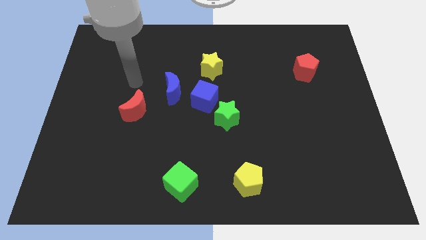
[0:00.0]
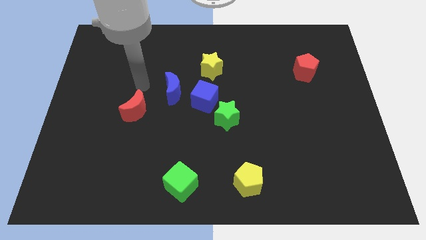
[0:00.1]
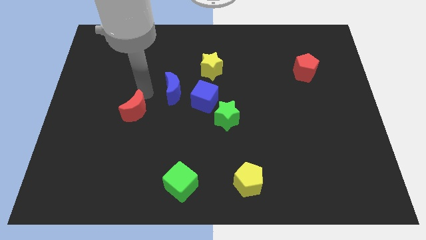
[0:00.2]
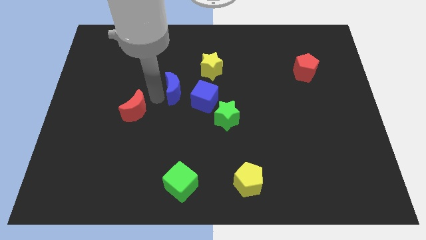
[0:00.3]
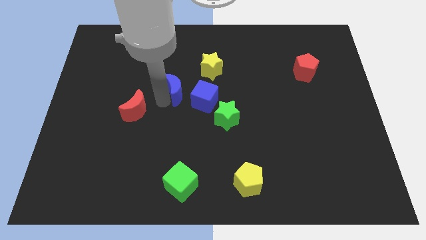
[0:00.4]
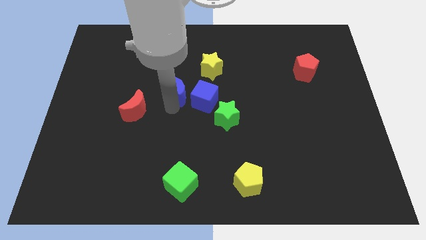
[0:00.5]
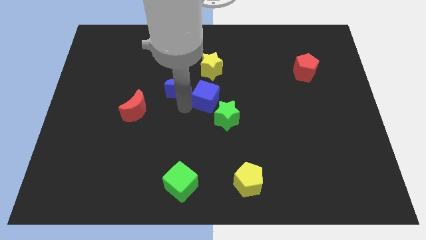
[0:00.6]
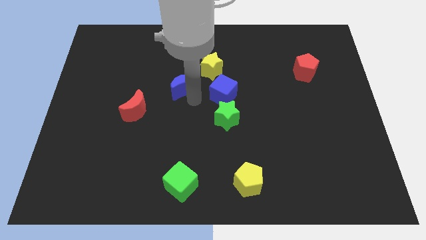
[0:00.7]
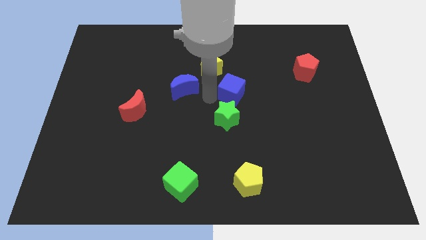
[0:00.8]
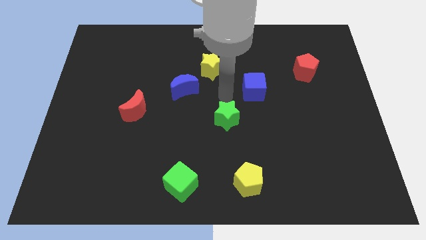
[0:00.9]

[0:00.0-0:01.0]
pull the green star apart from the blue cube

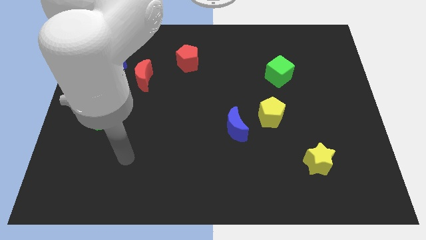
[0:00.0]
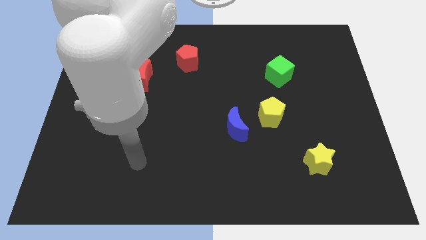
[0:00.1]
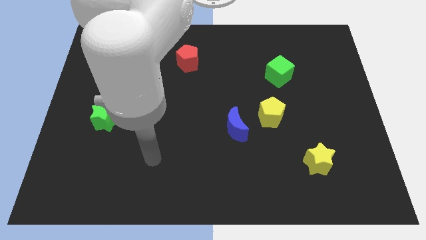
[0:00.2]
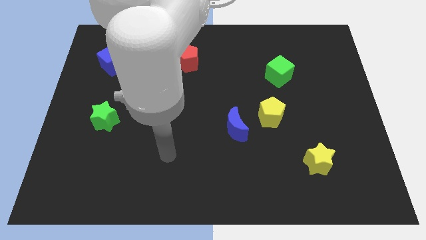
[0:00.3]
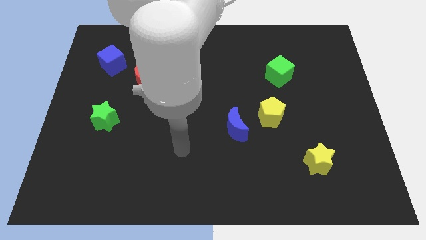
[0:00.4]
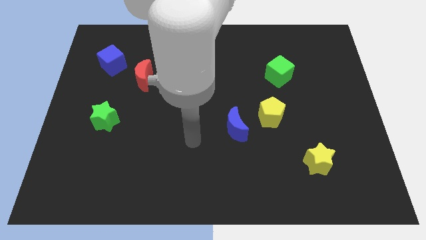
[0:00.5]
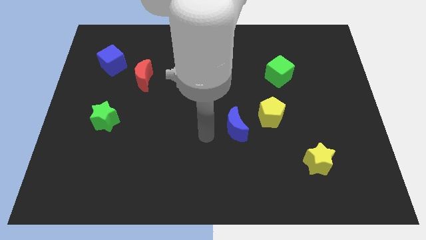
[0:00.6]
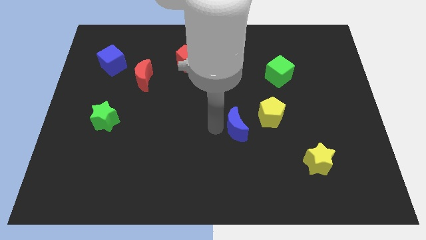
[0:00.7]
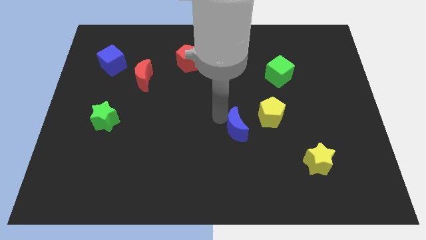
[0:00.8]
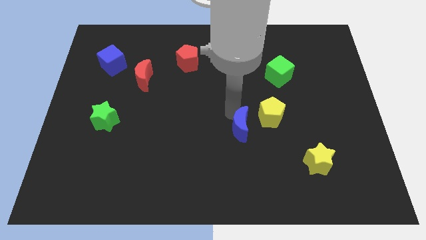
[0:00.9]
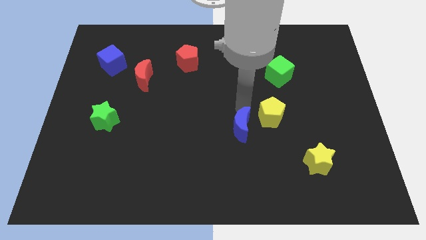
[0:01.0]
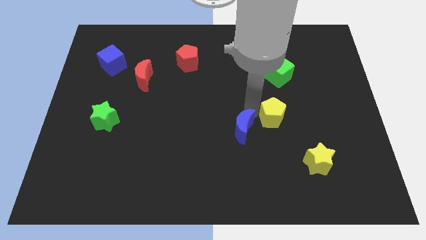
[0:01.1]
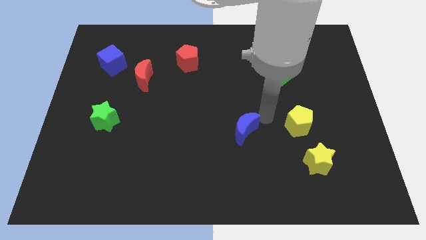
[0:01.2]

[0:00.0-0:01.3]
pull the blue moon apart from the yellow pentagon

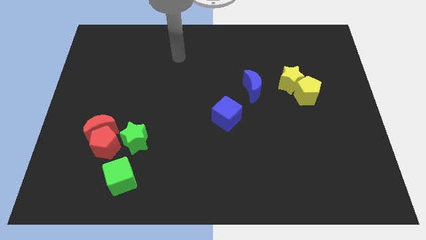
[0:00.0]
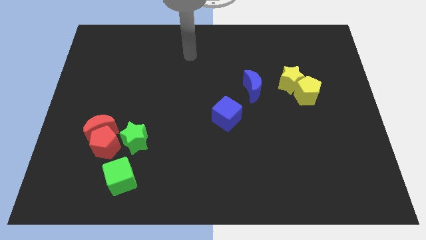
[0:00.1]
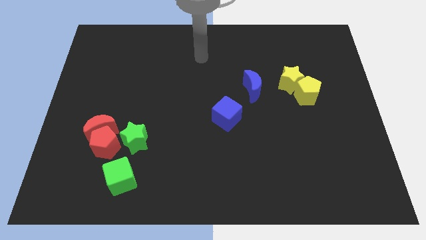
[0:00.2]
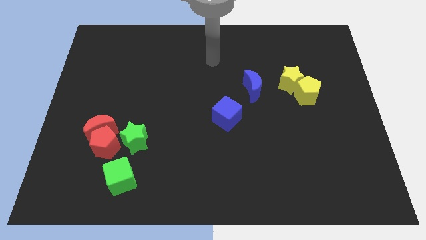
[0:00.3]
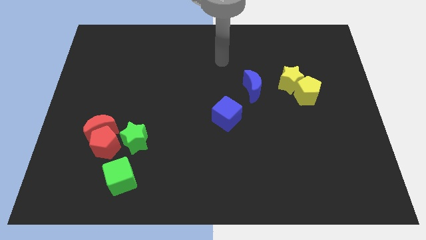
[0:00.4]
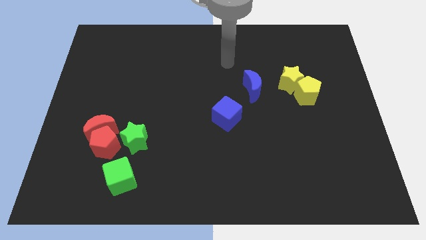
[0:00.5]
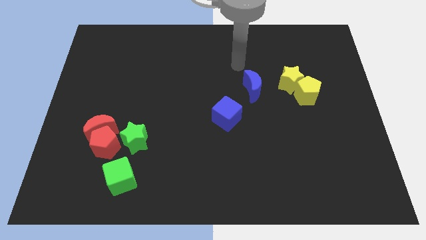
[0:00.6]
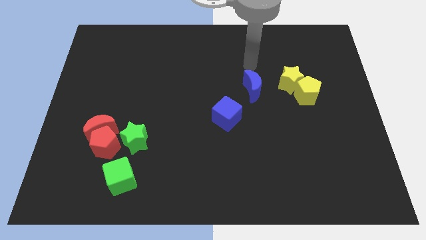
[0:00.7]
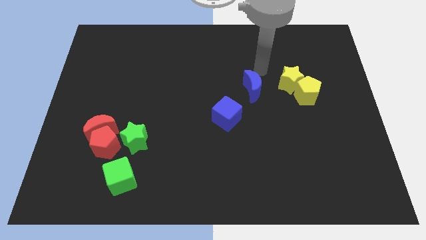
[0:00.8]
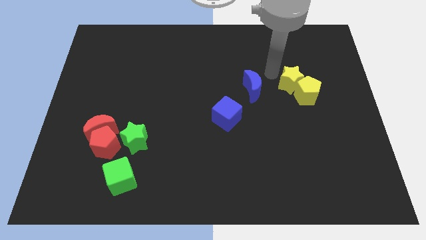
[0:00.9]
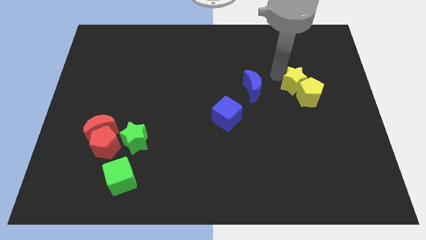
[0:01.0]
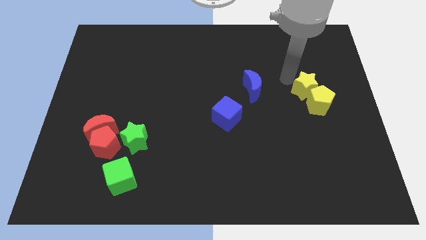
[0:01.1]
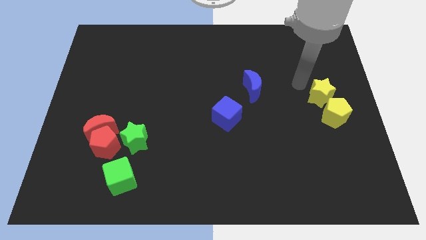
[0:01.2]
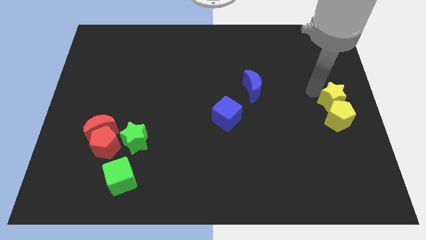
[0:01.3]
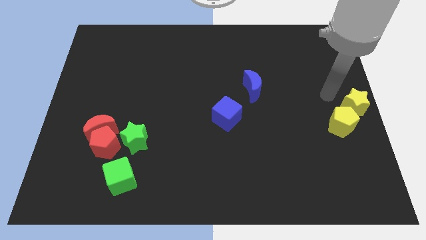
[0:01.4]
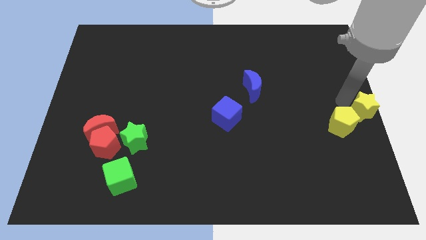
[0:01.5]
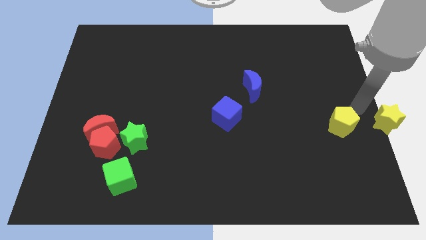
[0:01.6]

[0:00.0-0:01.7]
move the yellow pentagon away from the yellow star

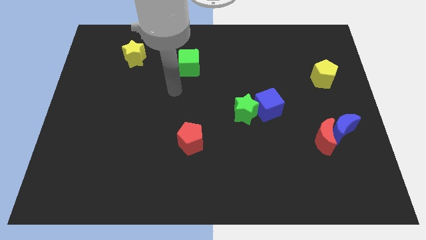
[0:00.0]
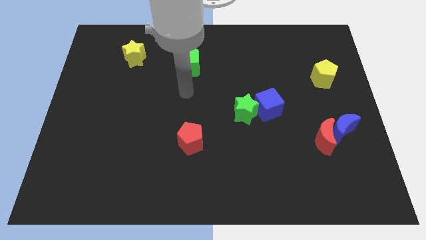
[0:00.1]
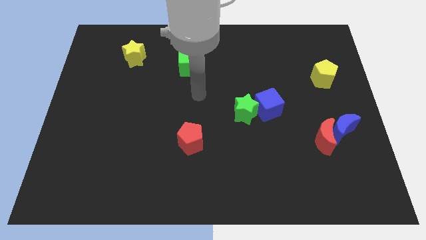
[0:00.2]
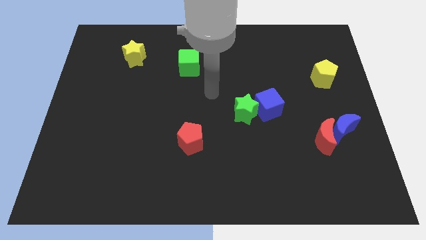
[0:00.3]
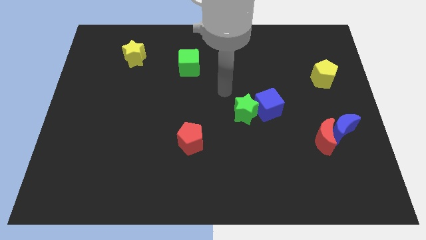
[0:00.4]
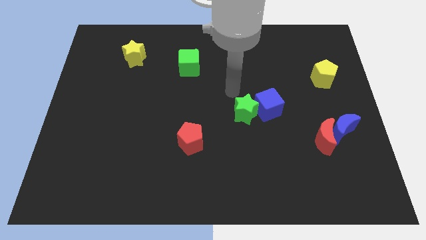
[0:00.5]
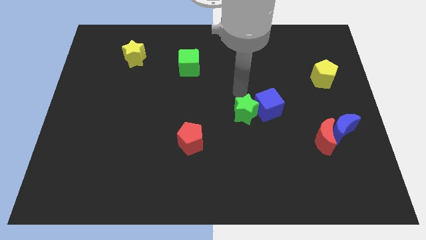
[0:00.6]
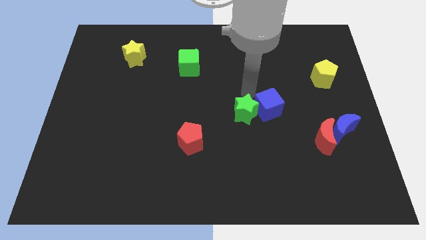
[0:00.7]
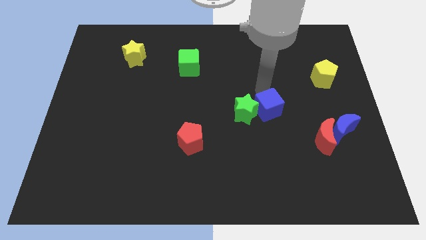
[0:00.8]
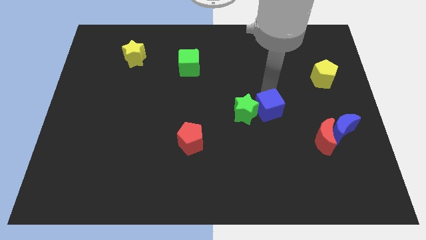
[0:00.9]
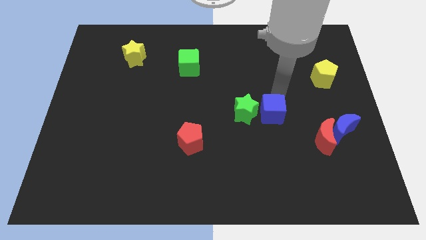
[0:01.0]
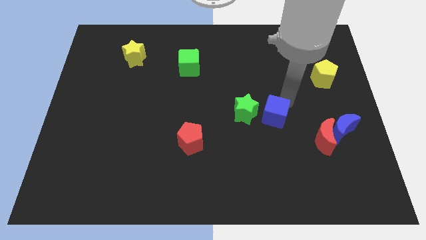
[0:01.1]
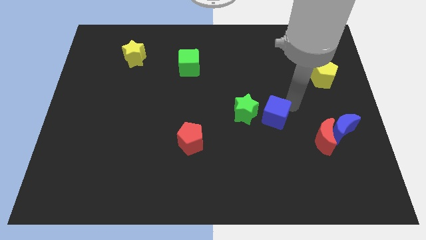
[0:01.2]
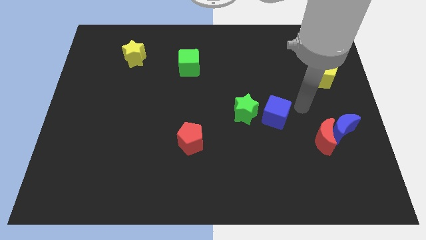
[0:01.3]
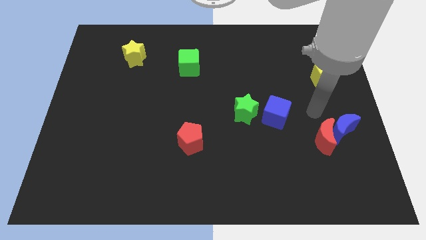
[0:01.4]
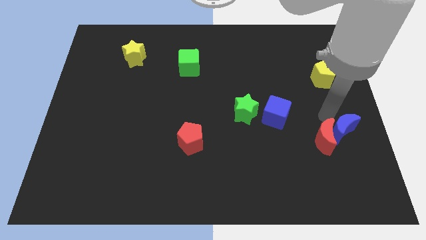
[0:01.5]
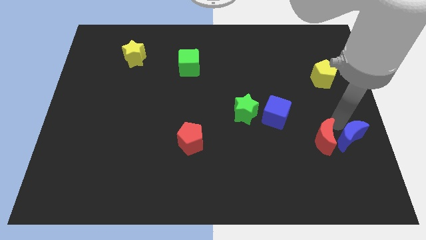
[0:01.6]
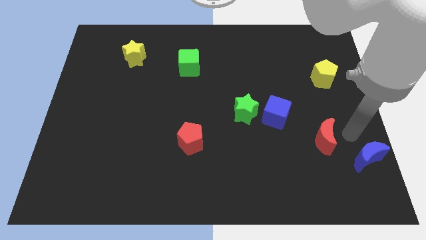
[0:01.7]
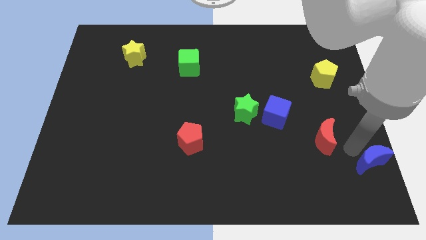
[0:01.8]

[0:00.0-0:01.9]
move the red moon away from the blue moon

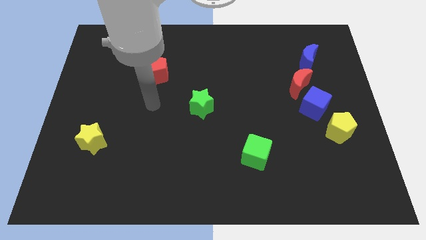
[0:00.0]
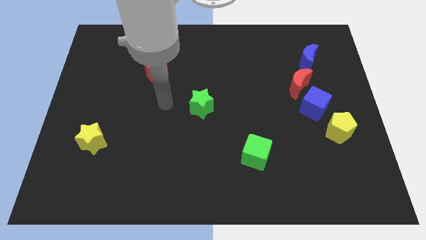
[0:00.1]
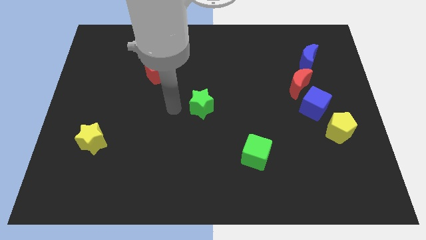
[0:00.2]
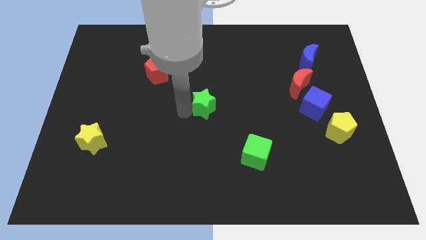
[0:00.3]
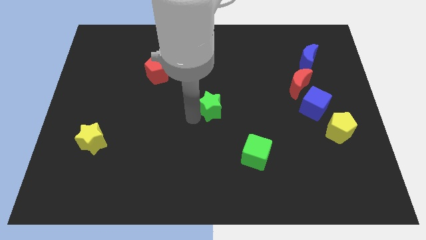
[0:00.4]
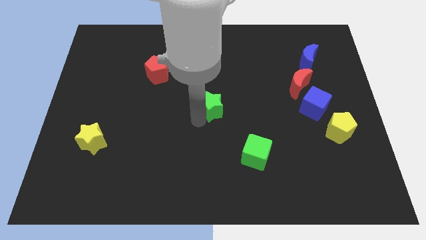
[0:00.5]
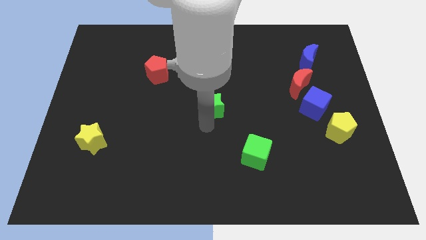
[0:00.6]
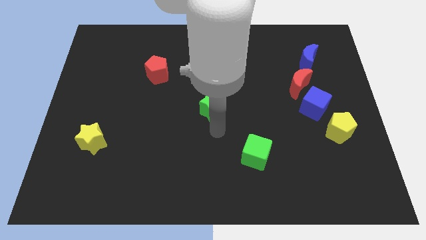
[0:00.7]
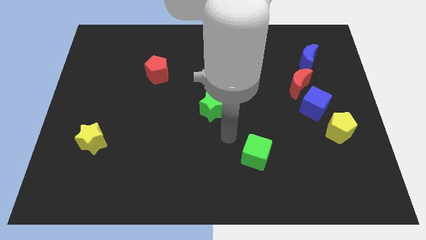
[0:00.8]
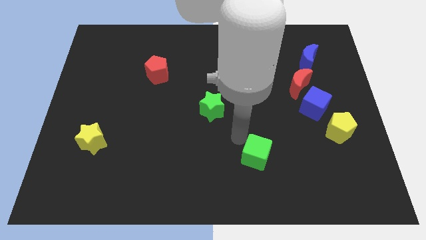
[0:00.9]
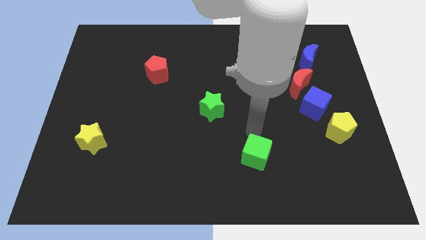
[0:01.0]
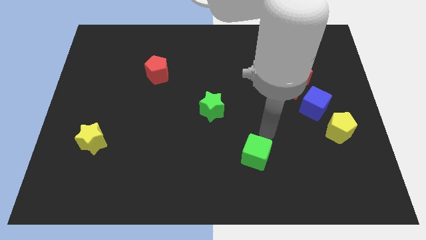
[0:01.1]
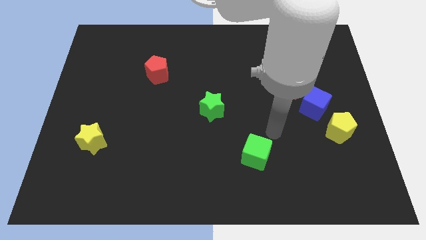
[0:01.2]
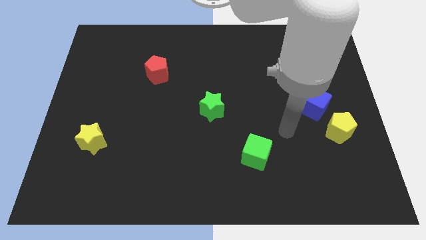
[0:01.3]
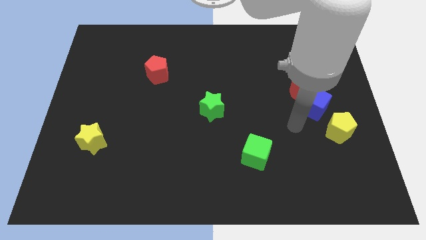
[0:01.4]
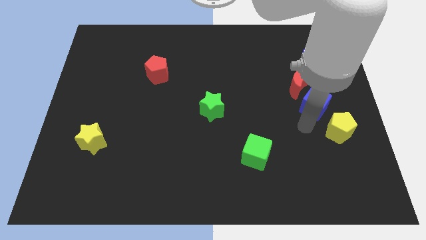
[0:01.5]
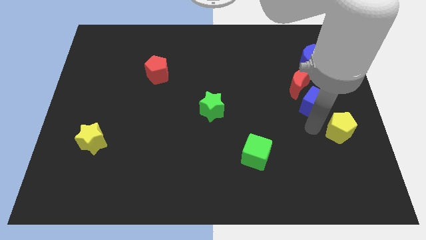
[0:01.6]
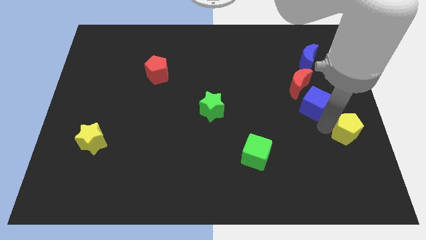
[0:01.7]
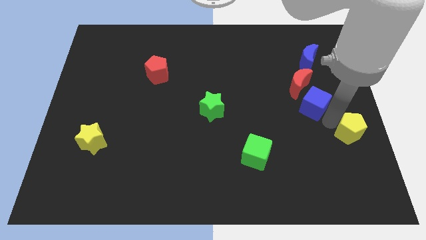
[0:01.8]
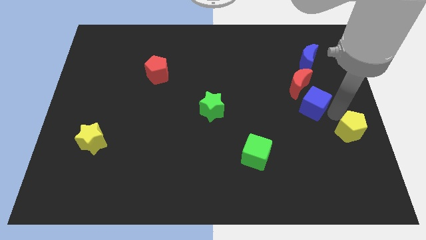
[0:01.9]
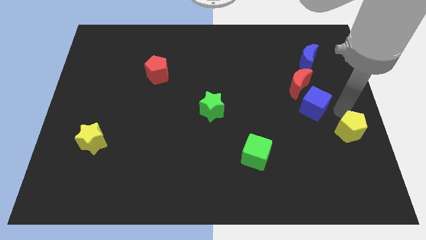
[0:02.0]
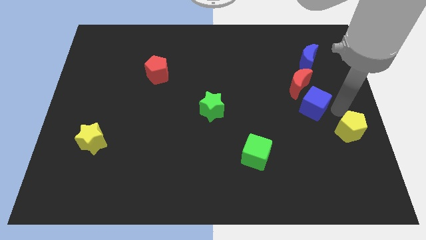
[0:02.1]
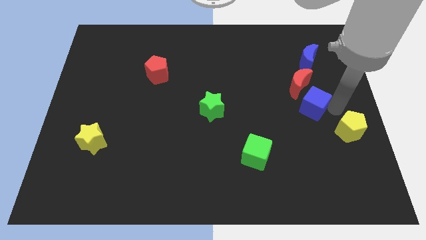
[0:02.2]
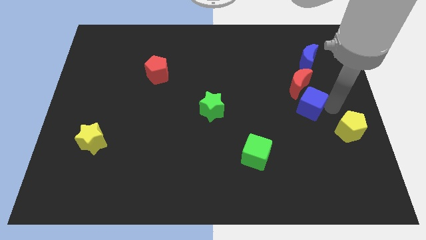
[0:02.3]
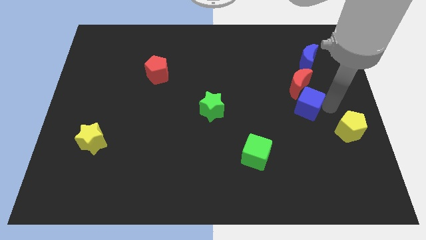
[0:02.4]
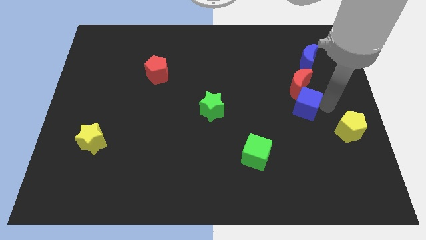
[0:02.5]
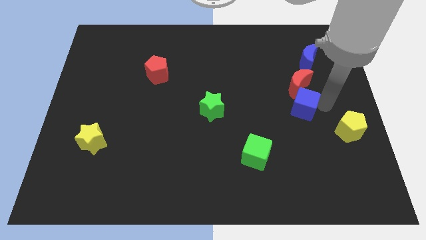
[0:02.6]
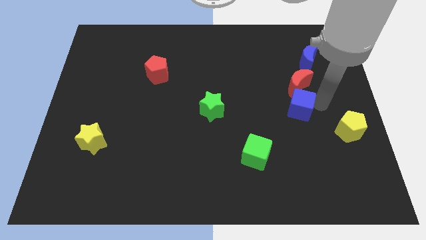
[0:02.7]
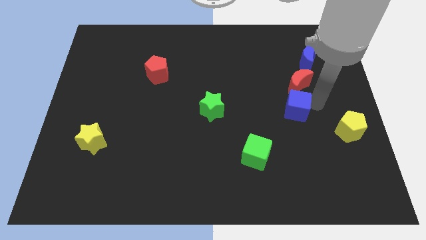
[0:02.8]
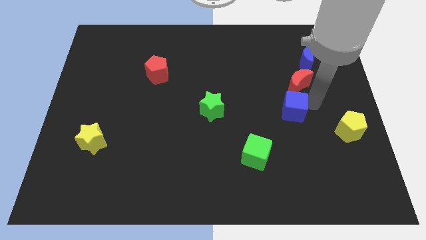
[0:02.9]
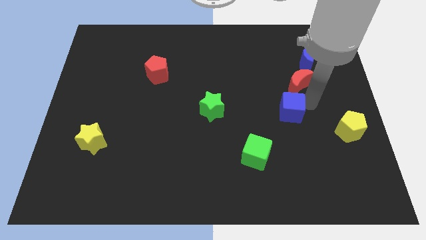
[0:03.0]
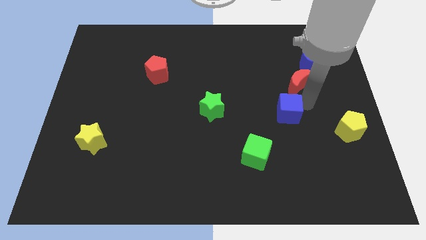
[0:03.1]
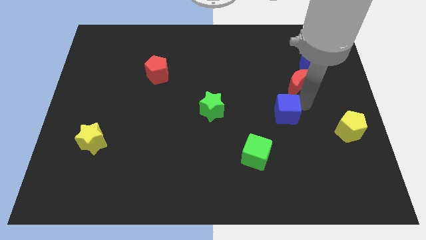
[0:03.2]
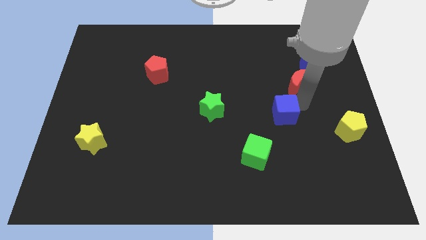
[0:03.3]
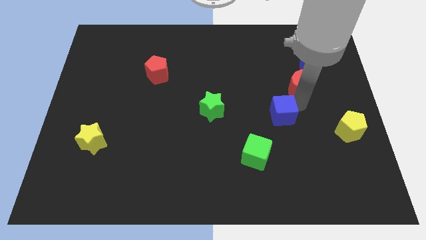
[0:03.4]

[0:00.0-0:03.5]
separate the blue cube from the red moon and yellow pentagon
